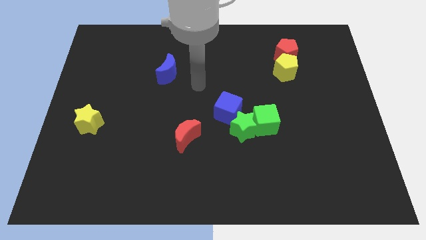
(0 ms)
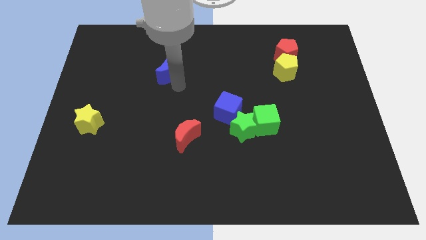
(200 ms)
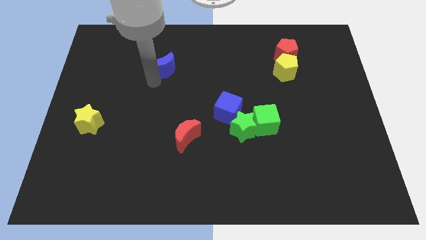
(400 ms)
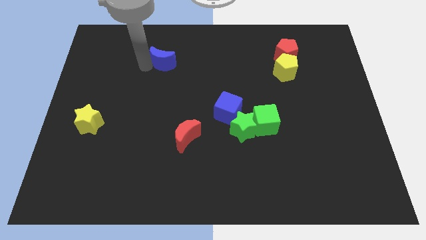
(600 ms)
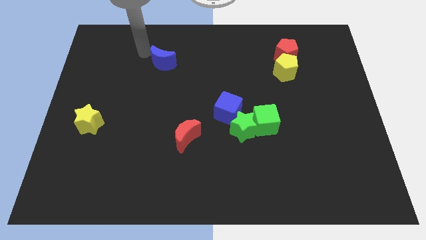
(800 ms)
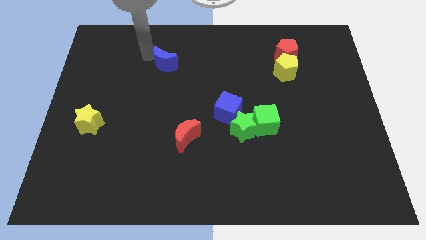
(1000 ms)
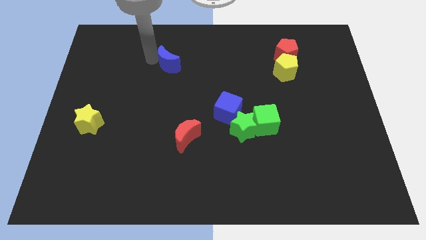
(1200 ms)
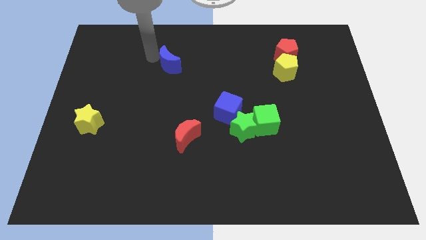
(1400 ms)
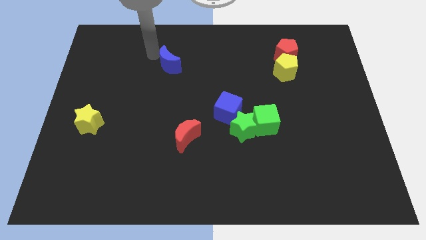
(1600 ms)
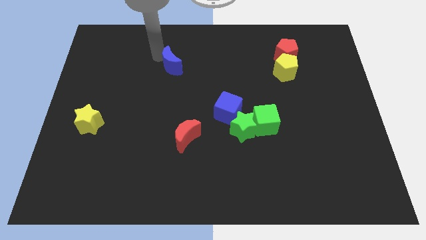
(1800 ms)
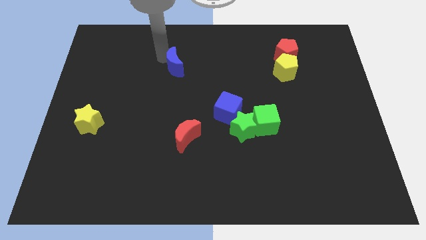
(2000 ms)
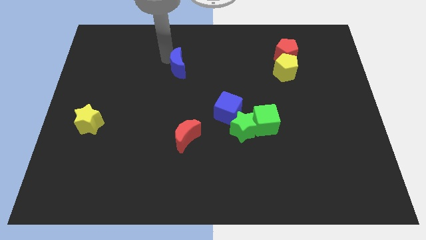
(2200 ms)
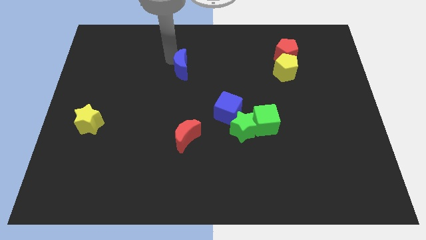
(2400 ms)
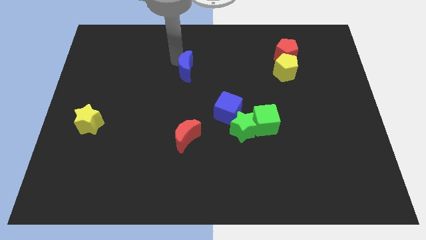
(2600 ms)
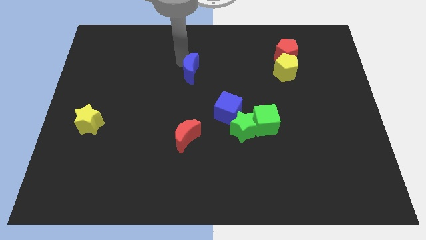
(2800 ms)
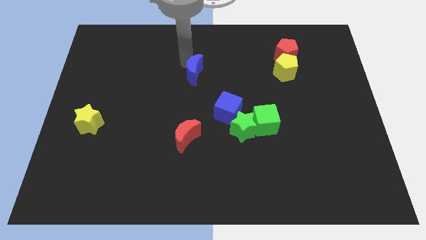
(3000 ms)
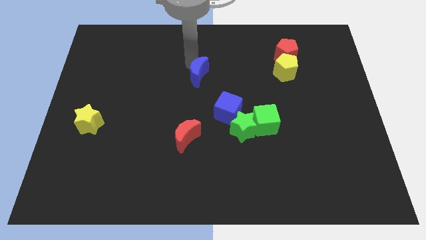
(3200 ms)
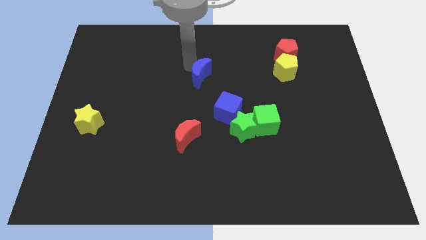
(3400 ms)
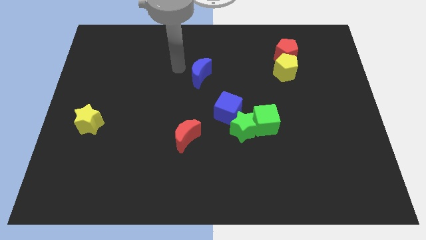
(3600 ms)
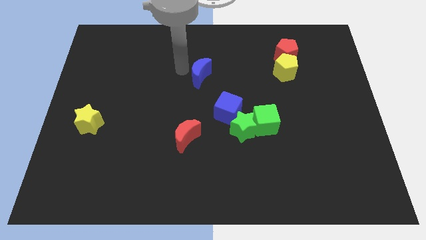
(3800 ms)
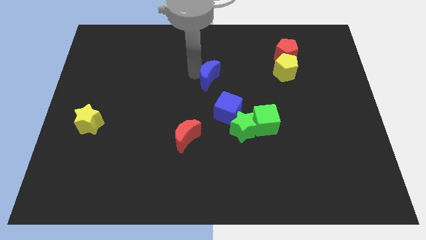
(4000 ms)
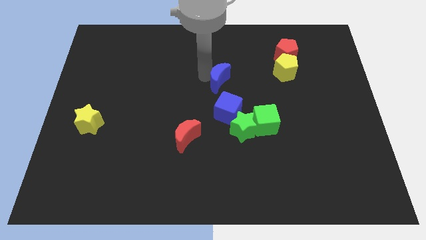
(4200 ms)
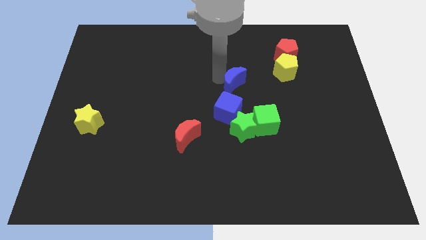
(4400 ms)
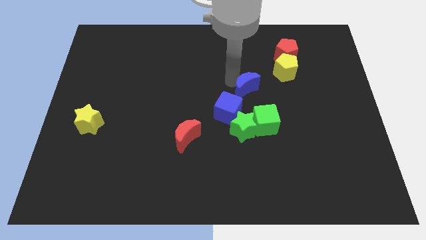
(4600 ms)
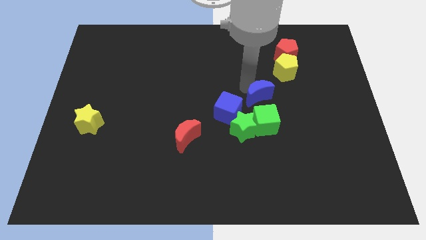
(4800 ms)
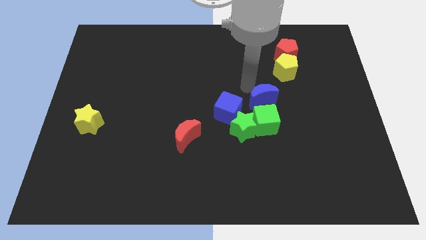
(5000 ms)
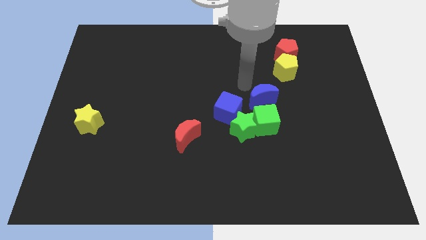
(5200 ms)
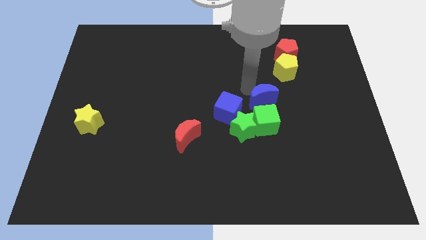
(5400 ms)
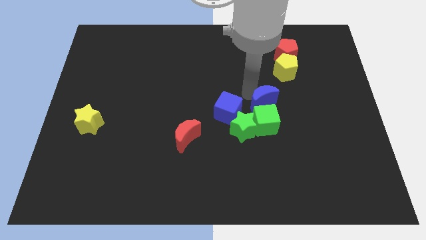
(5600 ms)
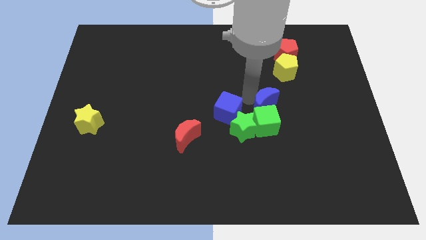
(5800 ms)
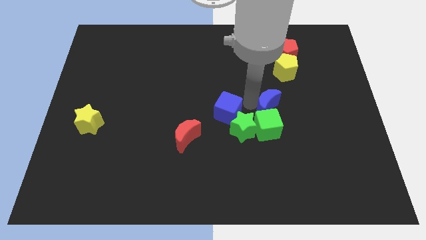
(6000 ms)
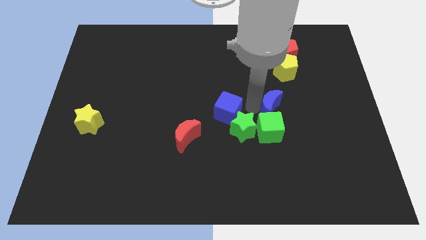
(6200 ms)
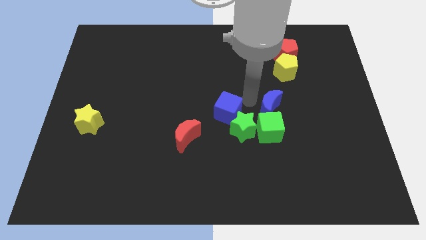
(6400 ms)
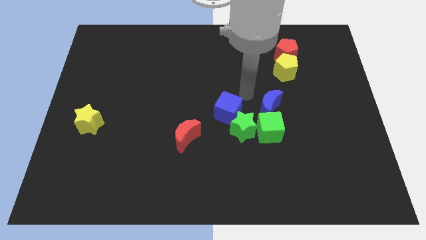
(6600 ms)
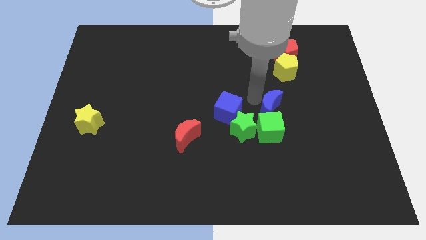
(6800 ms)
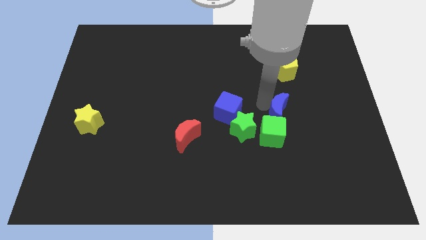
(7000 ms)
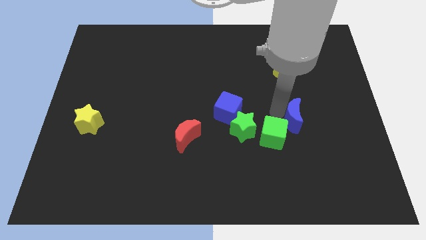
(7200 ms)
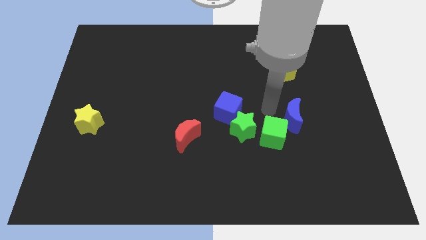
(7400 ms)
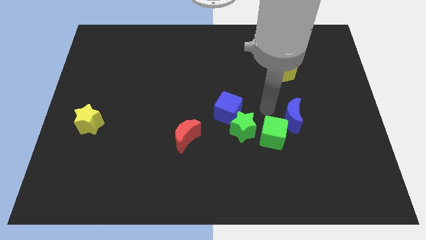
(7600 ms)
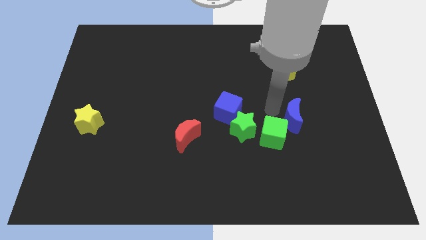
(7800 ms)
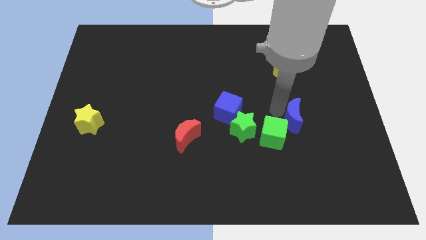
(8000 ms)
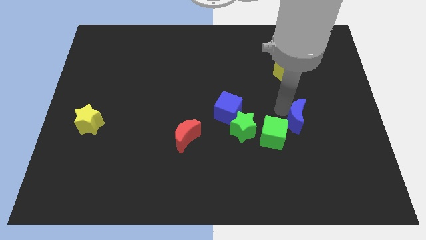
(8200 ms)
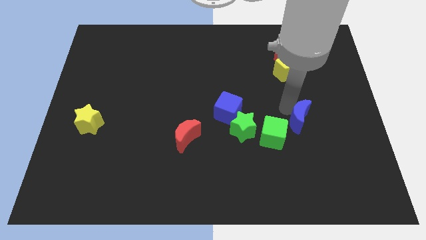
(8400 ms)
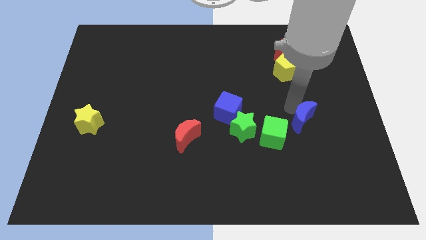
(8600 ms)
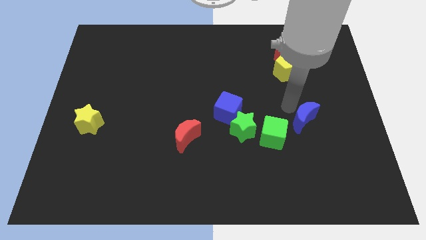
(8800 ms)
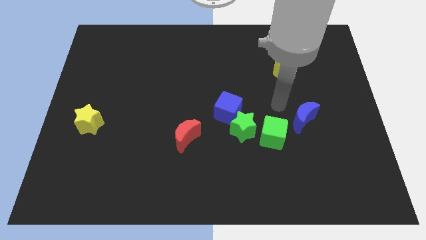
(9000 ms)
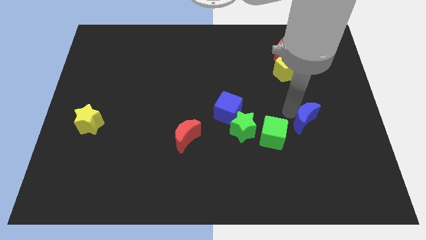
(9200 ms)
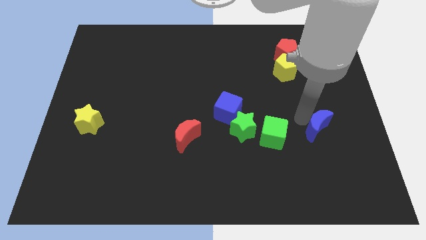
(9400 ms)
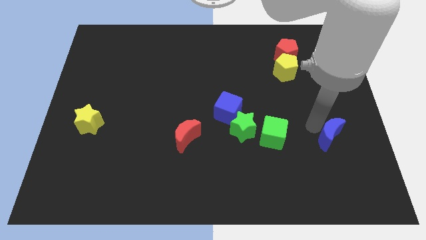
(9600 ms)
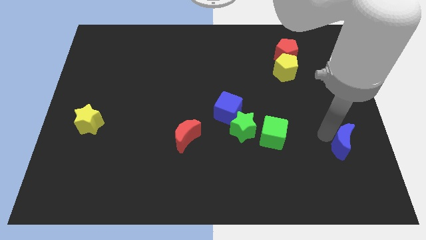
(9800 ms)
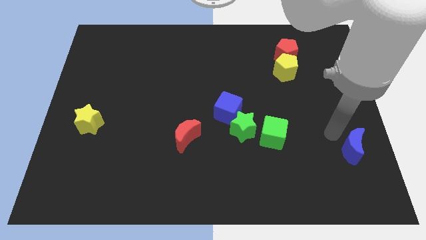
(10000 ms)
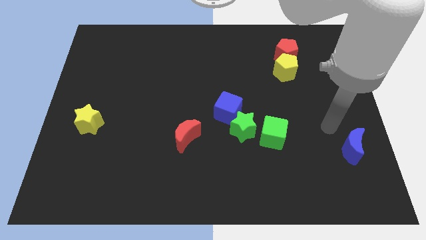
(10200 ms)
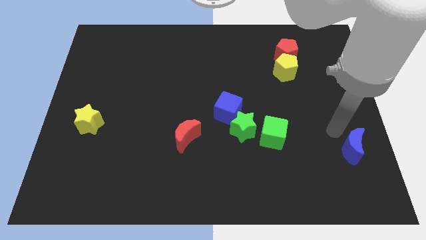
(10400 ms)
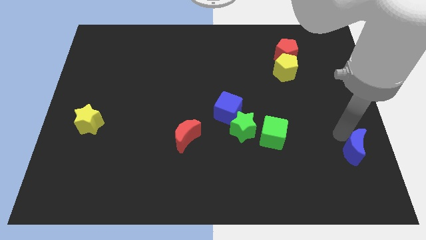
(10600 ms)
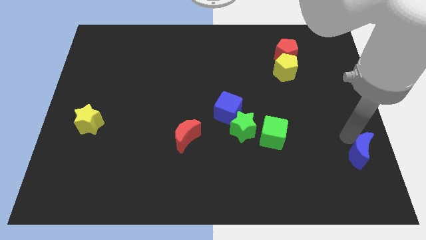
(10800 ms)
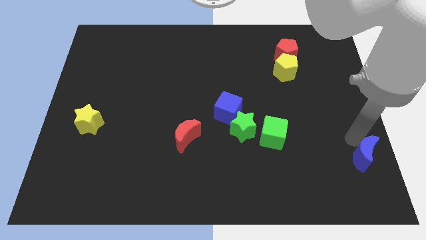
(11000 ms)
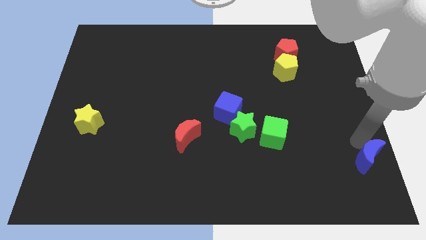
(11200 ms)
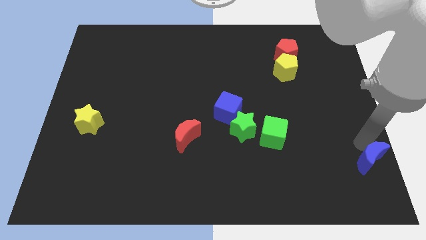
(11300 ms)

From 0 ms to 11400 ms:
slide the blue moon to the bottom right corner
